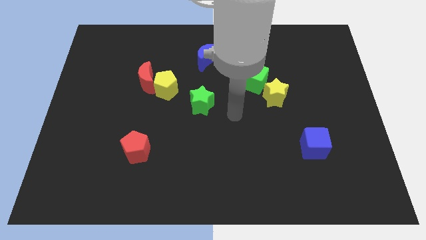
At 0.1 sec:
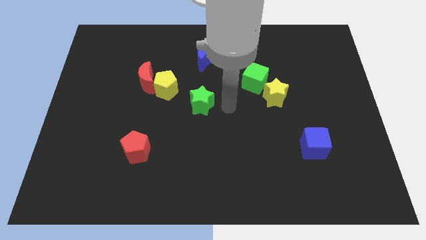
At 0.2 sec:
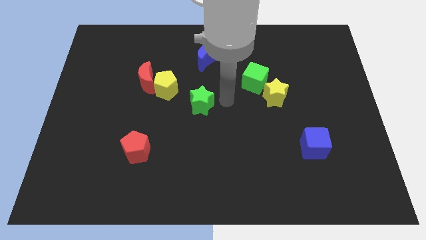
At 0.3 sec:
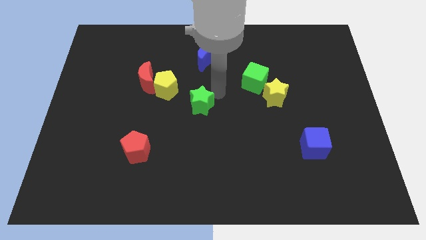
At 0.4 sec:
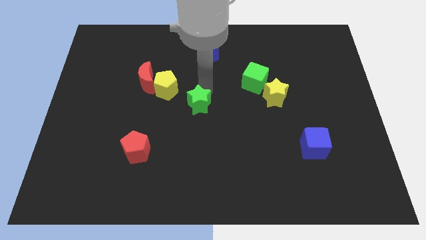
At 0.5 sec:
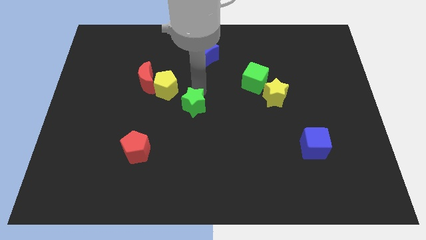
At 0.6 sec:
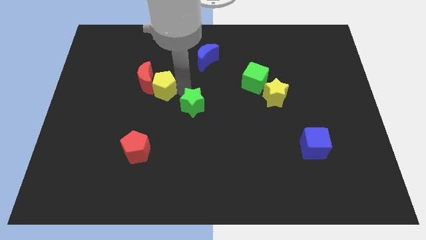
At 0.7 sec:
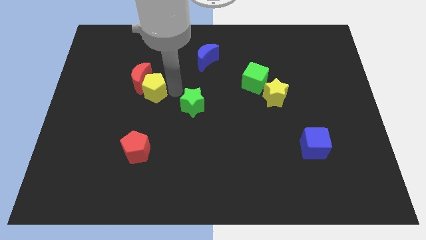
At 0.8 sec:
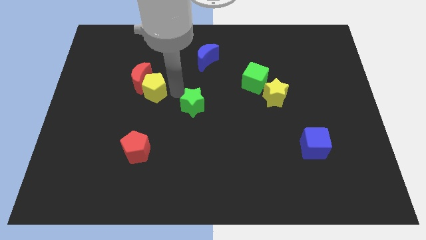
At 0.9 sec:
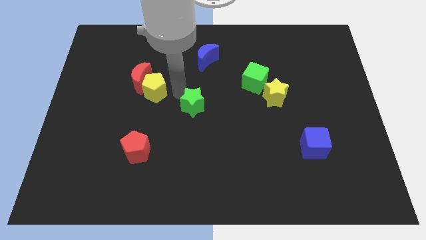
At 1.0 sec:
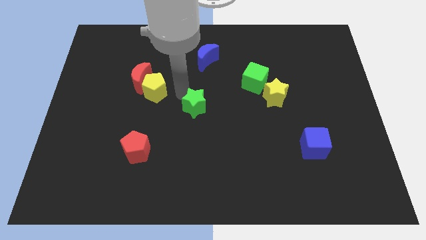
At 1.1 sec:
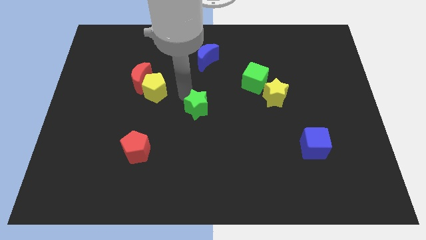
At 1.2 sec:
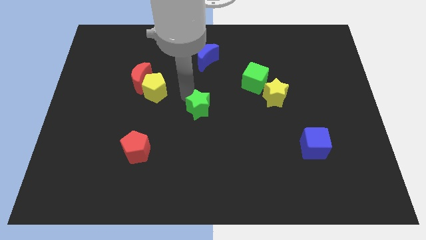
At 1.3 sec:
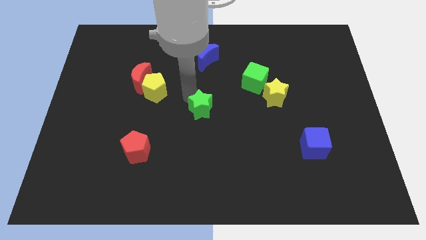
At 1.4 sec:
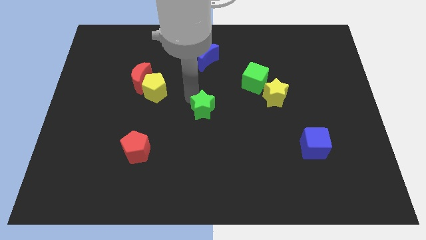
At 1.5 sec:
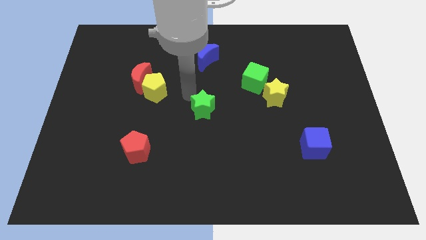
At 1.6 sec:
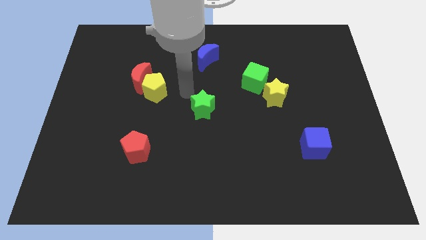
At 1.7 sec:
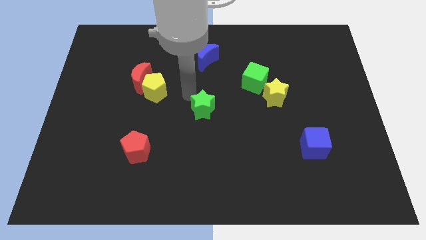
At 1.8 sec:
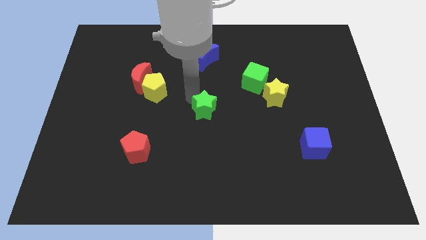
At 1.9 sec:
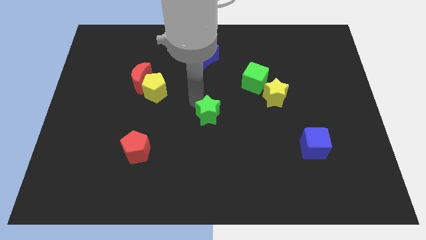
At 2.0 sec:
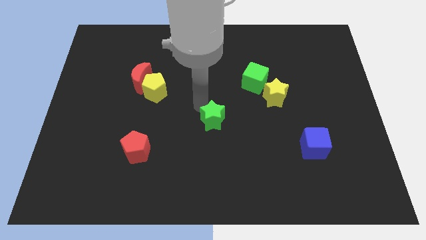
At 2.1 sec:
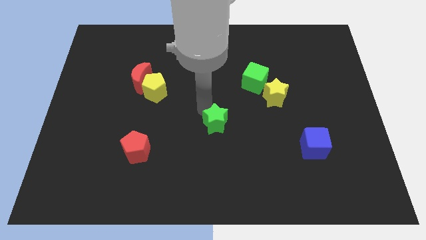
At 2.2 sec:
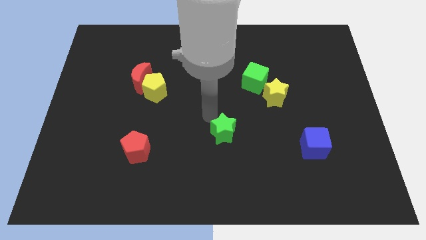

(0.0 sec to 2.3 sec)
move the green star downwards and to the right diagonally a little bit

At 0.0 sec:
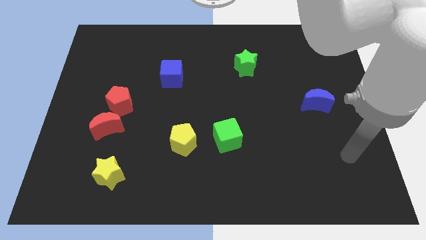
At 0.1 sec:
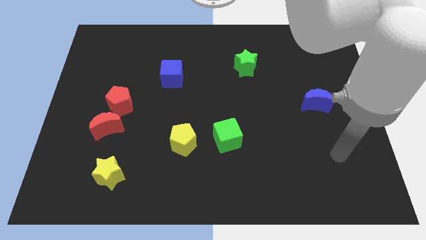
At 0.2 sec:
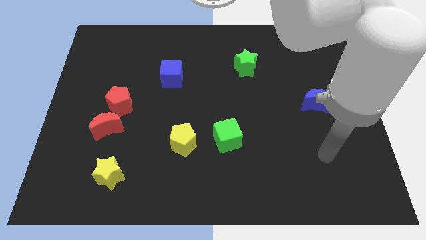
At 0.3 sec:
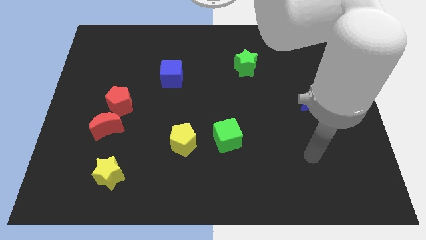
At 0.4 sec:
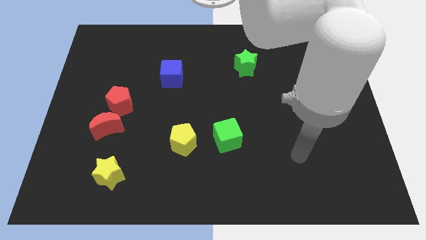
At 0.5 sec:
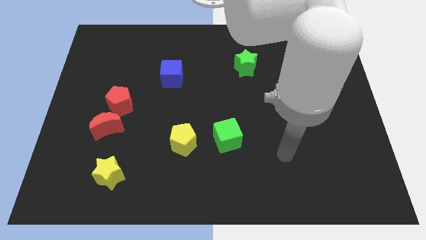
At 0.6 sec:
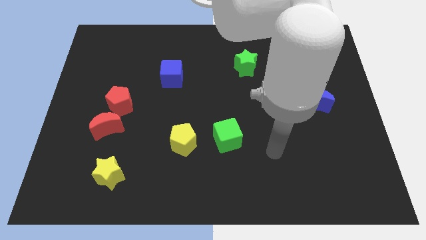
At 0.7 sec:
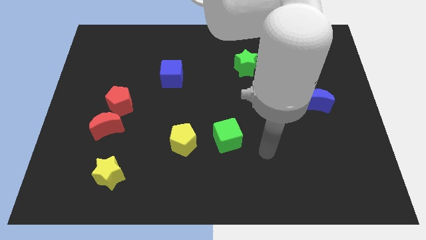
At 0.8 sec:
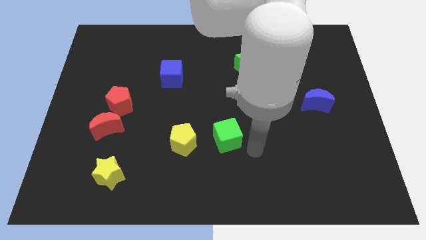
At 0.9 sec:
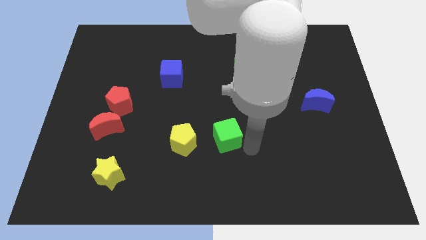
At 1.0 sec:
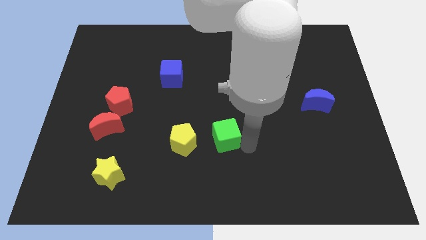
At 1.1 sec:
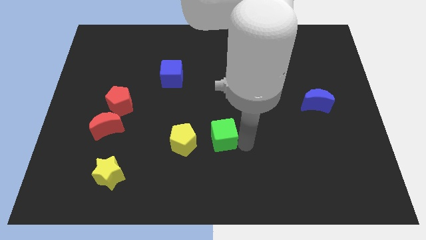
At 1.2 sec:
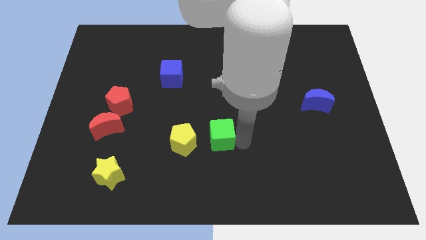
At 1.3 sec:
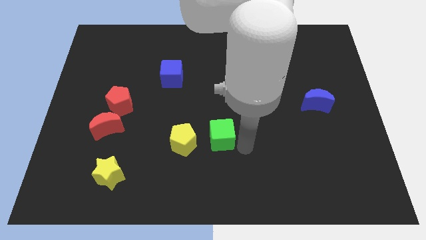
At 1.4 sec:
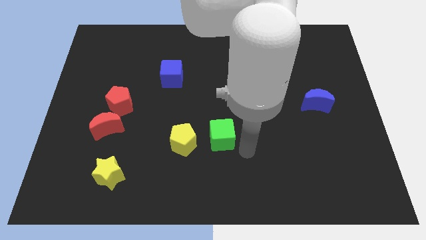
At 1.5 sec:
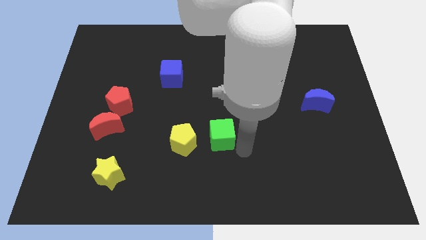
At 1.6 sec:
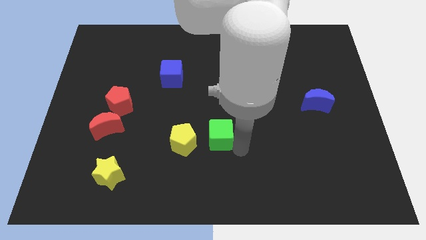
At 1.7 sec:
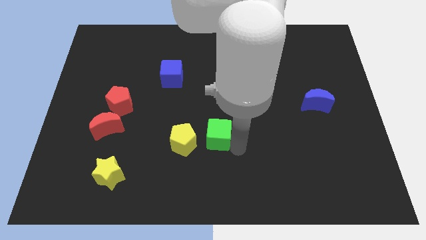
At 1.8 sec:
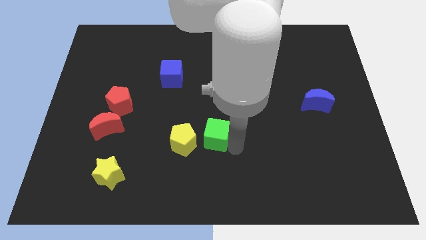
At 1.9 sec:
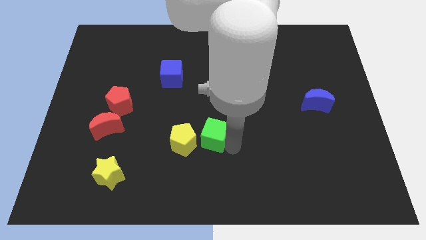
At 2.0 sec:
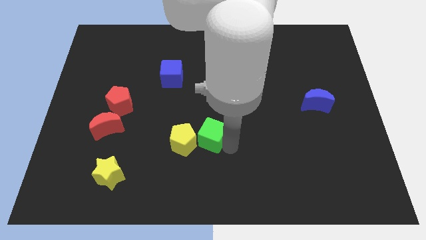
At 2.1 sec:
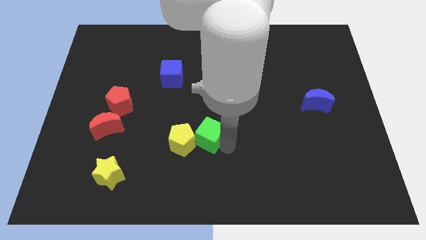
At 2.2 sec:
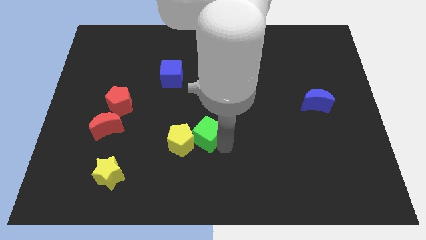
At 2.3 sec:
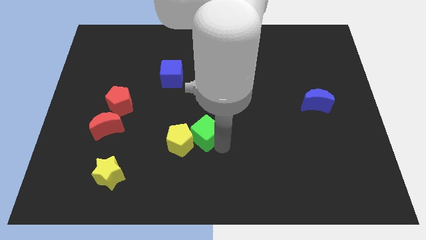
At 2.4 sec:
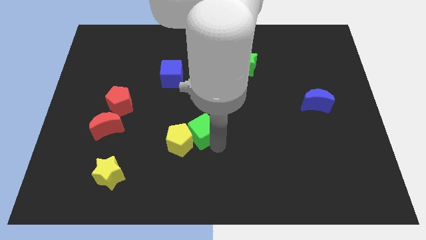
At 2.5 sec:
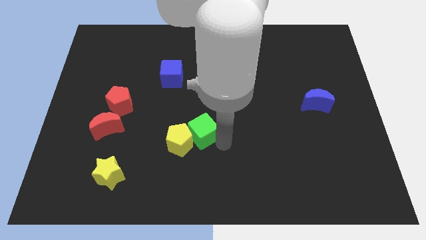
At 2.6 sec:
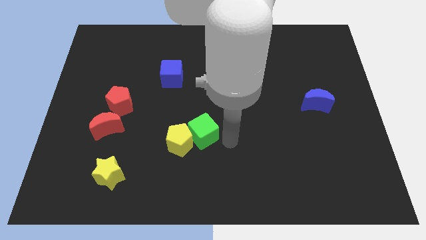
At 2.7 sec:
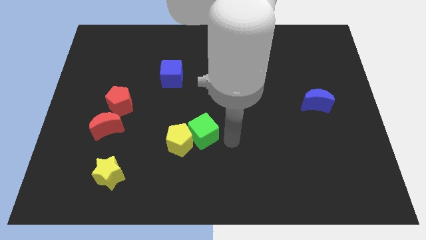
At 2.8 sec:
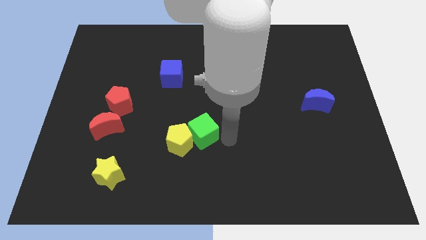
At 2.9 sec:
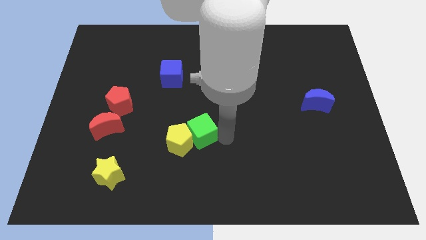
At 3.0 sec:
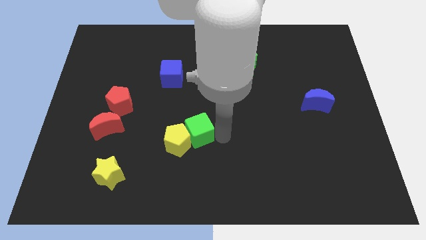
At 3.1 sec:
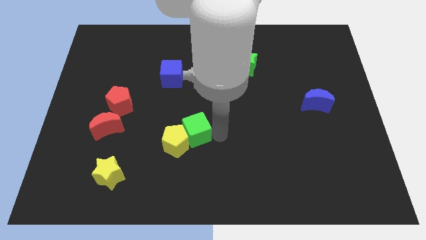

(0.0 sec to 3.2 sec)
move the green cube left a little

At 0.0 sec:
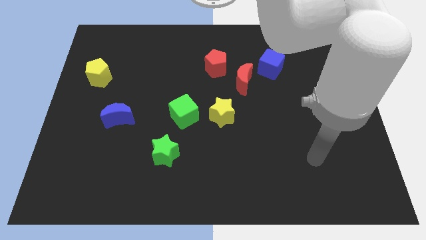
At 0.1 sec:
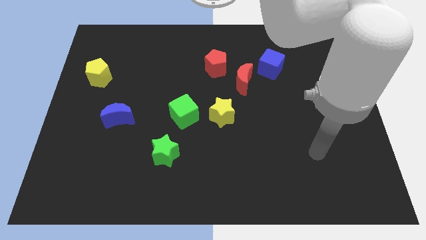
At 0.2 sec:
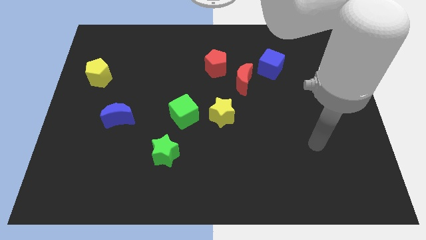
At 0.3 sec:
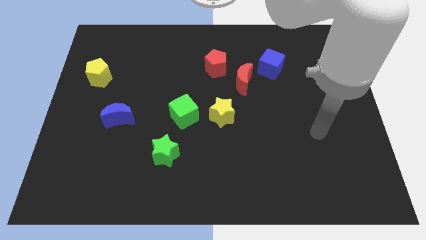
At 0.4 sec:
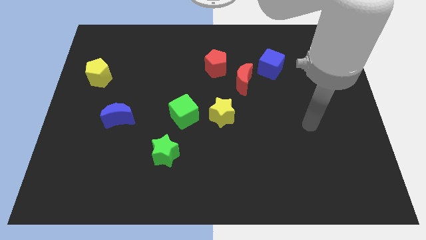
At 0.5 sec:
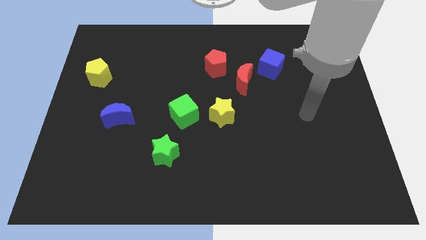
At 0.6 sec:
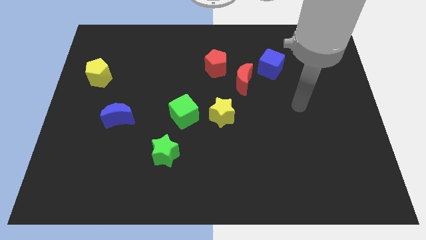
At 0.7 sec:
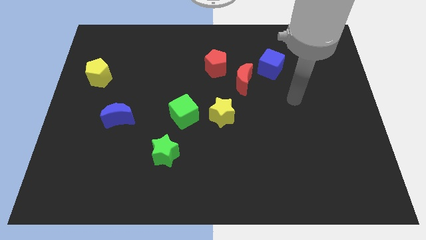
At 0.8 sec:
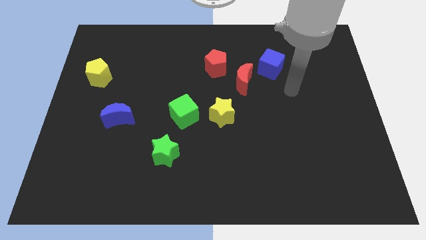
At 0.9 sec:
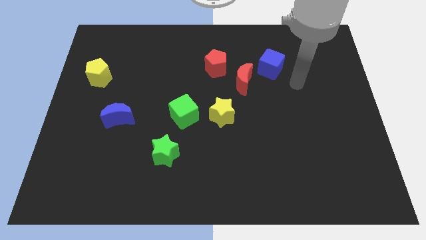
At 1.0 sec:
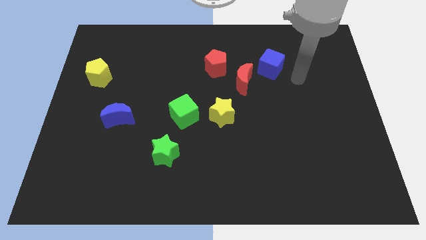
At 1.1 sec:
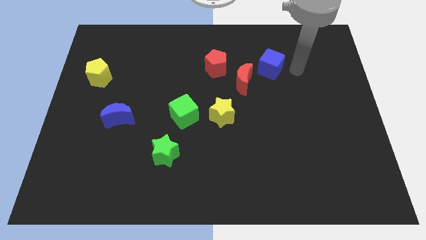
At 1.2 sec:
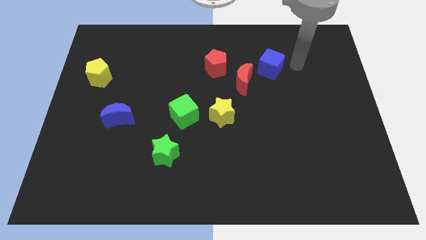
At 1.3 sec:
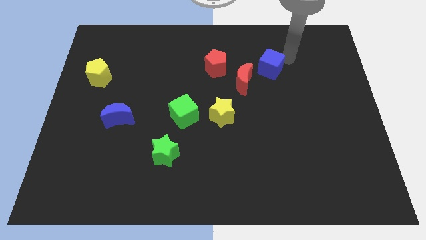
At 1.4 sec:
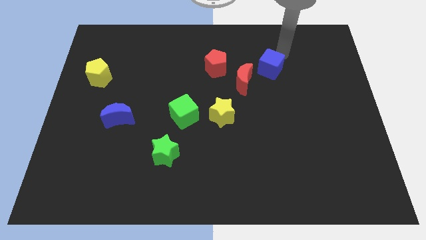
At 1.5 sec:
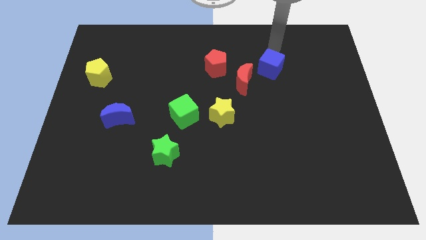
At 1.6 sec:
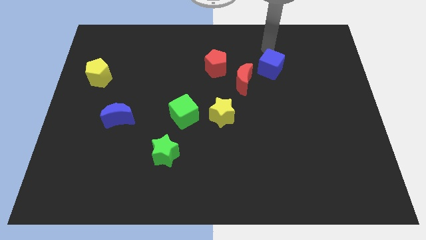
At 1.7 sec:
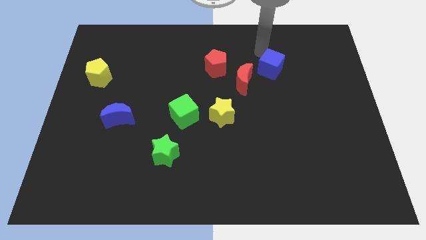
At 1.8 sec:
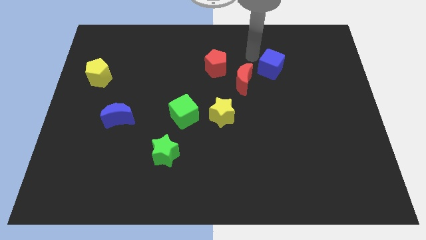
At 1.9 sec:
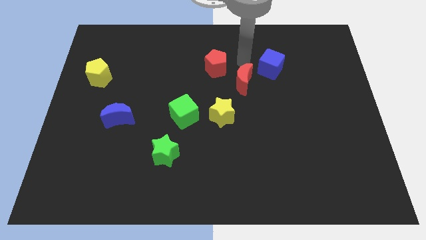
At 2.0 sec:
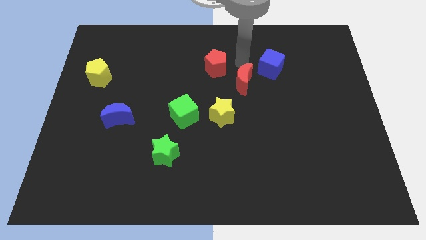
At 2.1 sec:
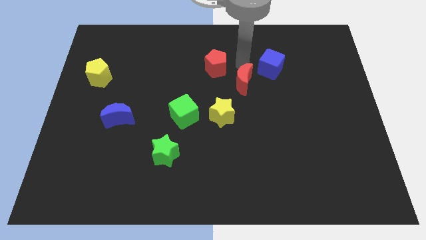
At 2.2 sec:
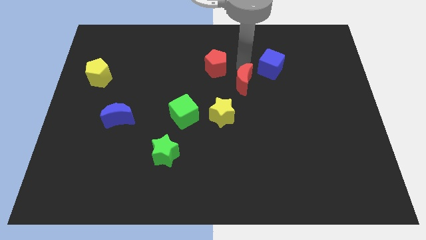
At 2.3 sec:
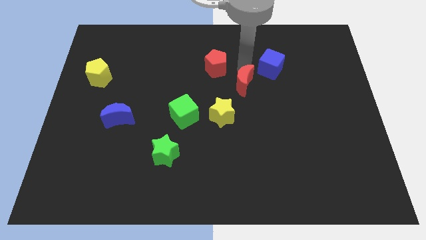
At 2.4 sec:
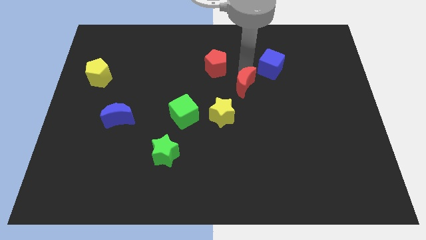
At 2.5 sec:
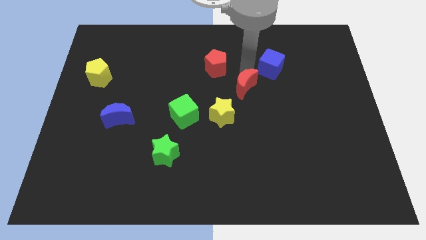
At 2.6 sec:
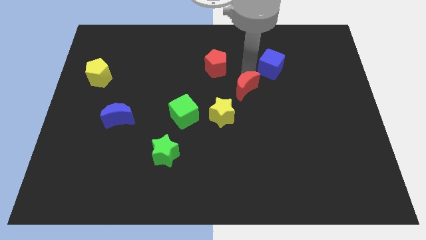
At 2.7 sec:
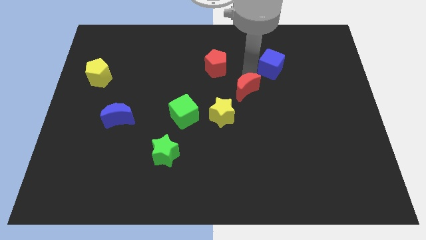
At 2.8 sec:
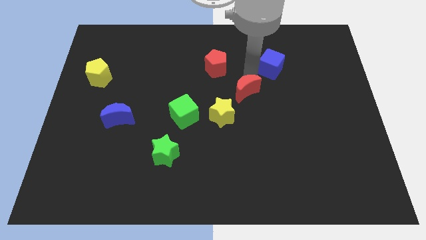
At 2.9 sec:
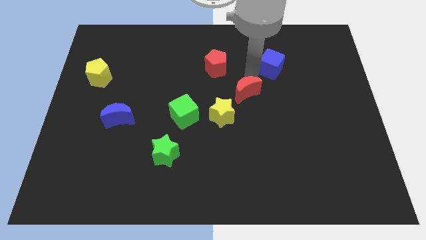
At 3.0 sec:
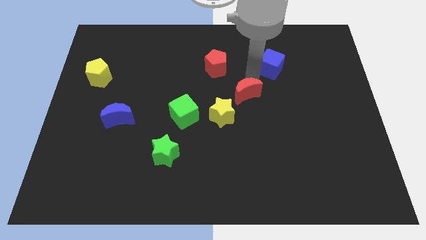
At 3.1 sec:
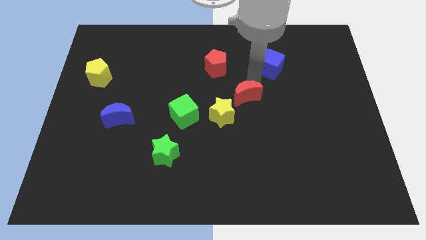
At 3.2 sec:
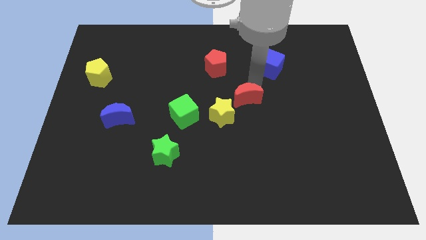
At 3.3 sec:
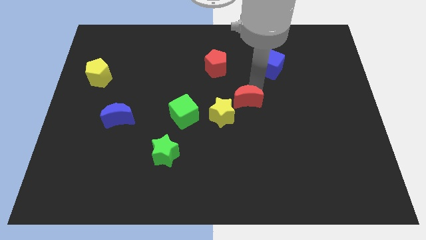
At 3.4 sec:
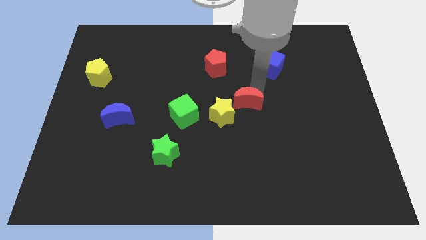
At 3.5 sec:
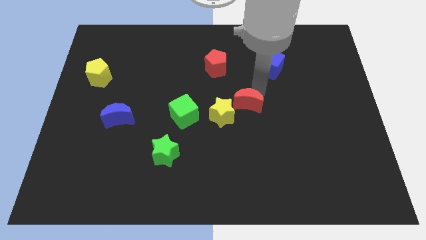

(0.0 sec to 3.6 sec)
move the red moon down slightly
